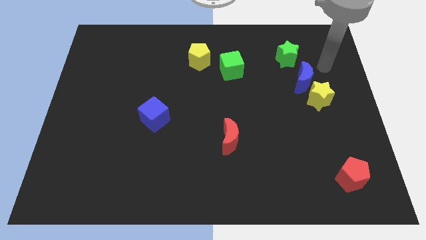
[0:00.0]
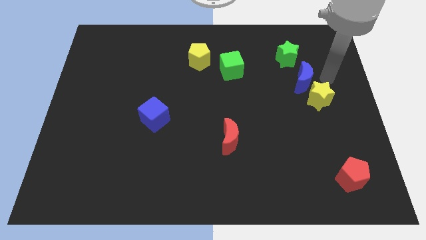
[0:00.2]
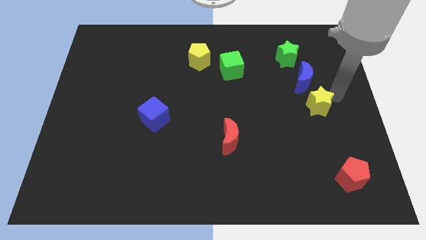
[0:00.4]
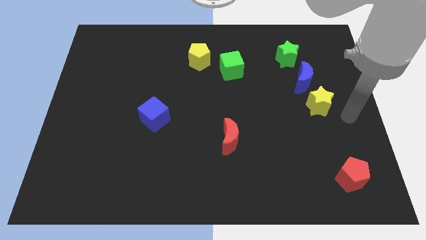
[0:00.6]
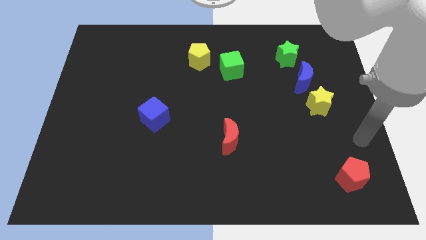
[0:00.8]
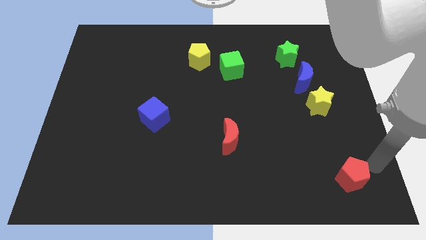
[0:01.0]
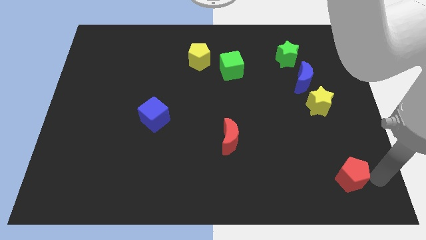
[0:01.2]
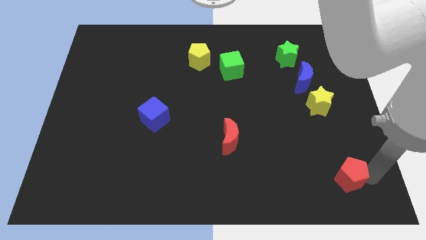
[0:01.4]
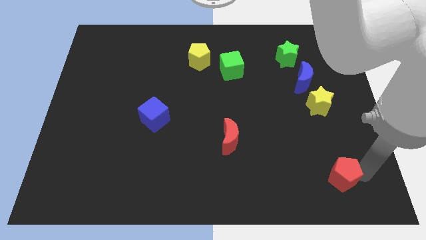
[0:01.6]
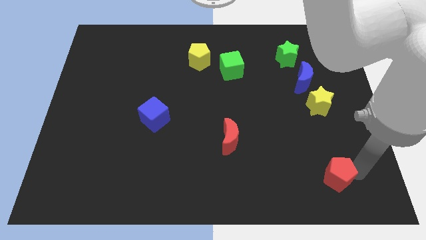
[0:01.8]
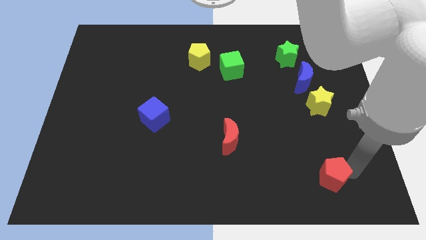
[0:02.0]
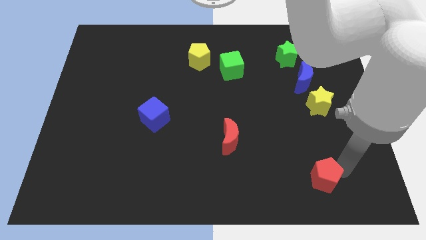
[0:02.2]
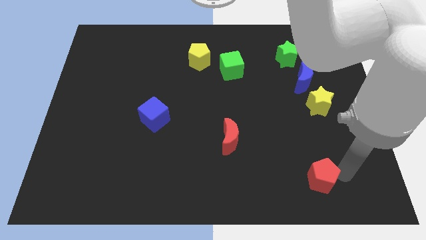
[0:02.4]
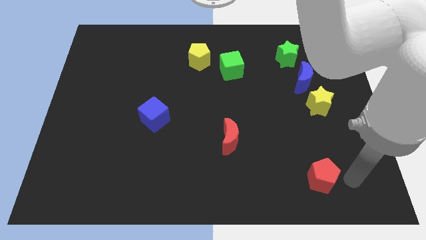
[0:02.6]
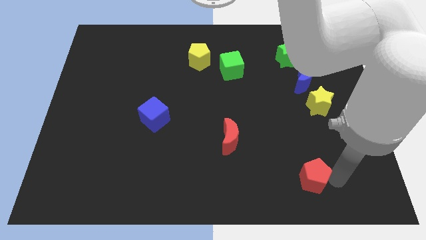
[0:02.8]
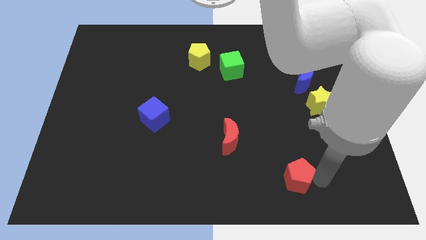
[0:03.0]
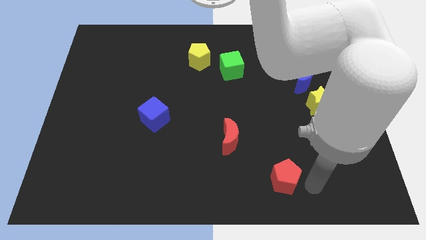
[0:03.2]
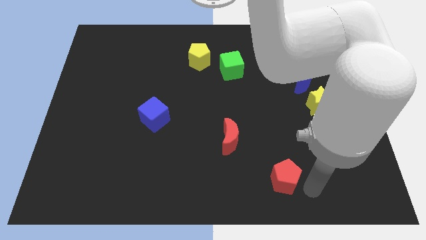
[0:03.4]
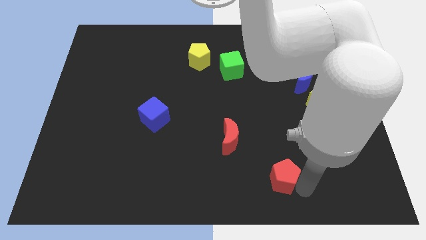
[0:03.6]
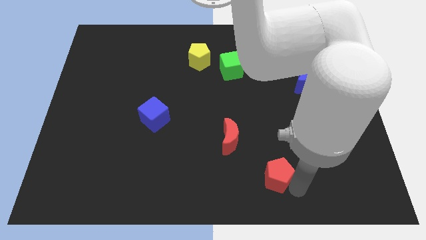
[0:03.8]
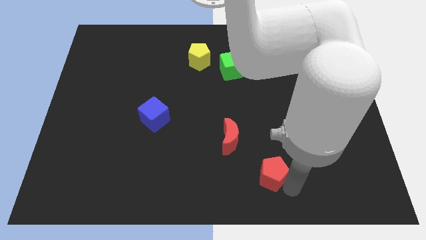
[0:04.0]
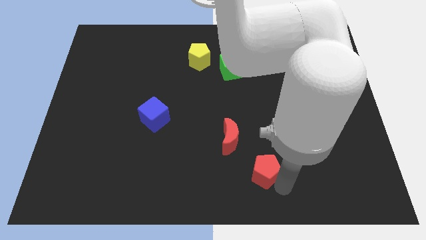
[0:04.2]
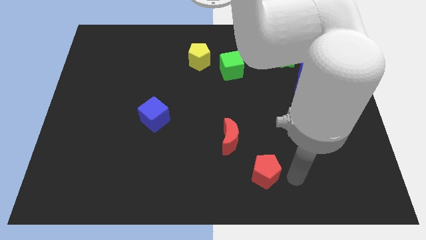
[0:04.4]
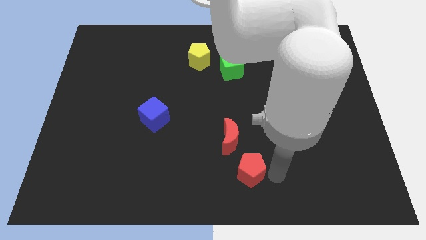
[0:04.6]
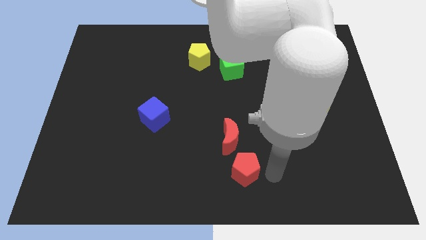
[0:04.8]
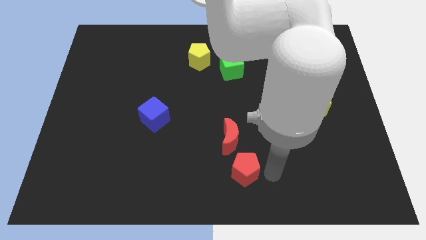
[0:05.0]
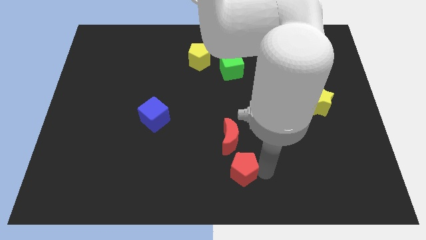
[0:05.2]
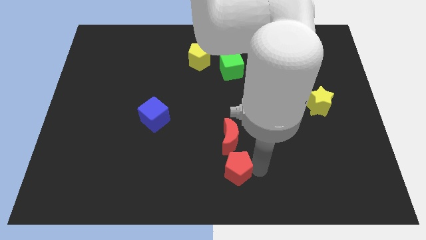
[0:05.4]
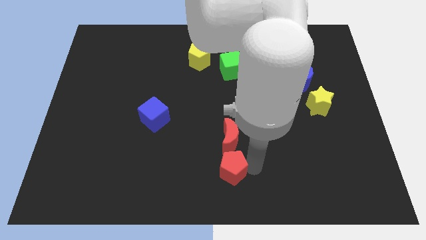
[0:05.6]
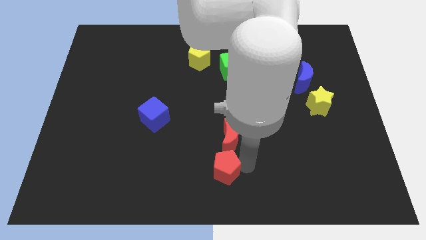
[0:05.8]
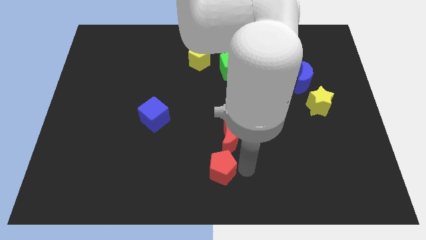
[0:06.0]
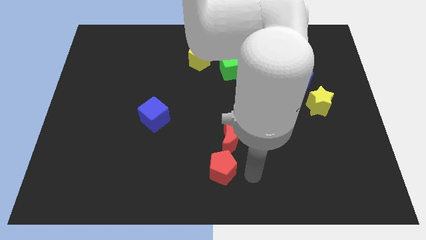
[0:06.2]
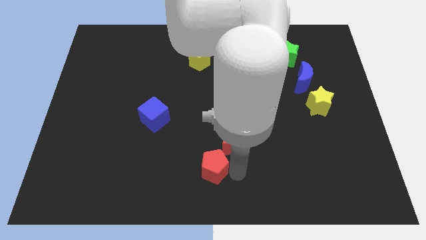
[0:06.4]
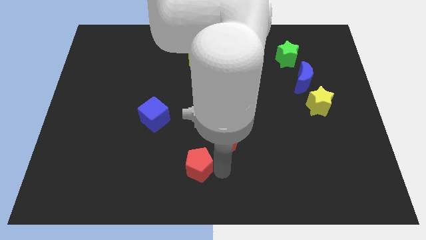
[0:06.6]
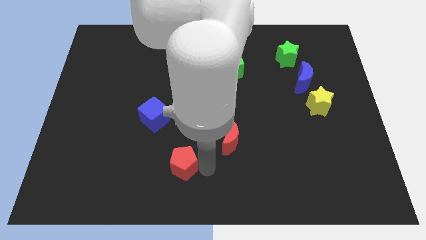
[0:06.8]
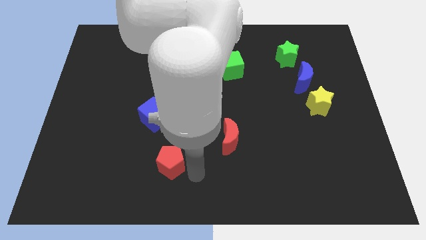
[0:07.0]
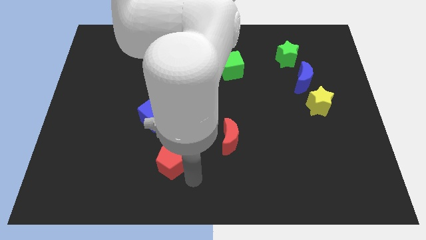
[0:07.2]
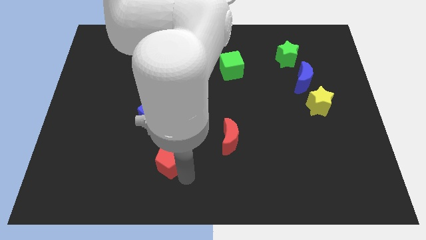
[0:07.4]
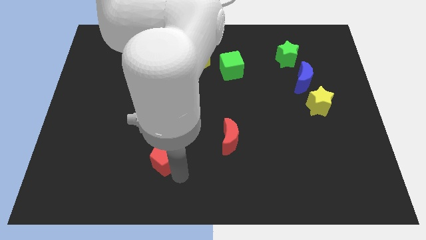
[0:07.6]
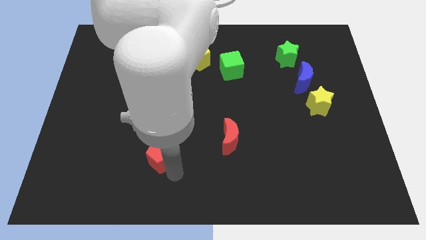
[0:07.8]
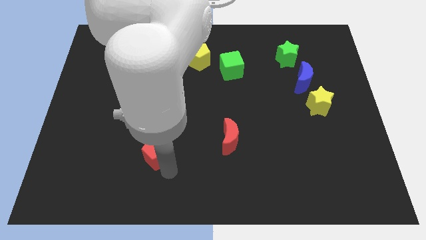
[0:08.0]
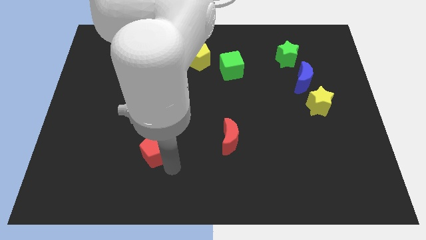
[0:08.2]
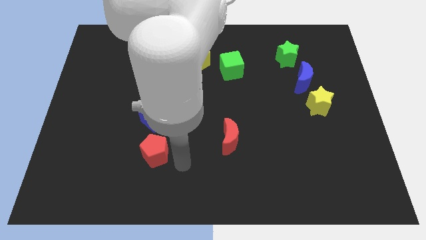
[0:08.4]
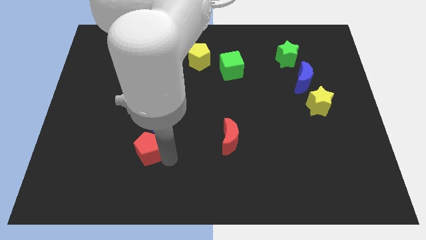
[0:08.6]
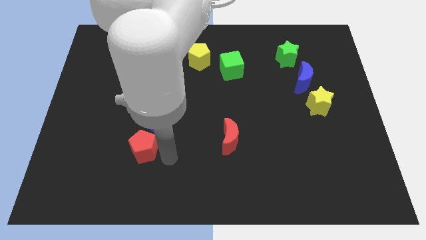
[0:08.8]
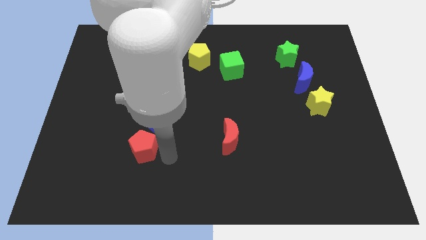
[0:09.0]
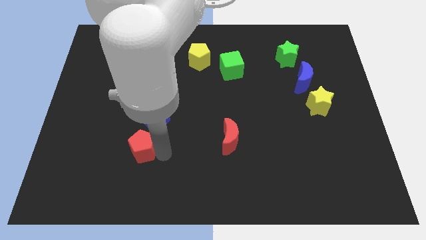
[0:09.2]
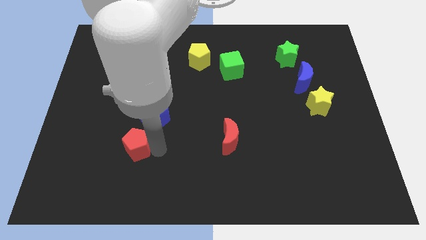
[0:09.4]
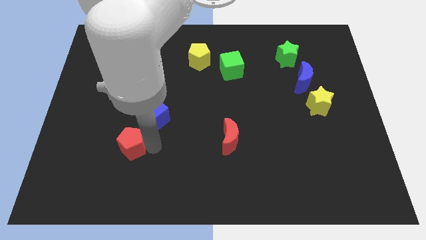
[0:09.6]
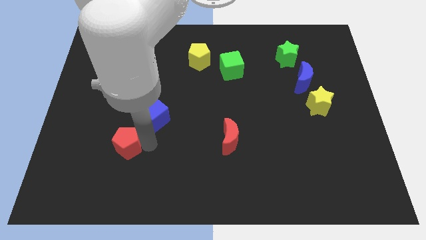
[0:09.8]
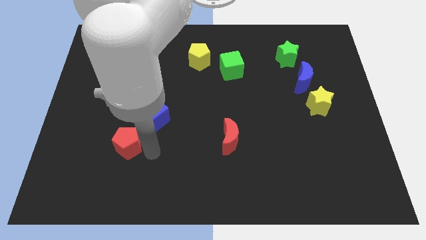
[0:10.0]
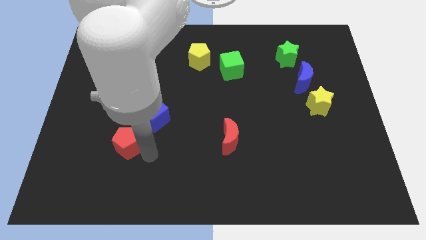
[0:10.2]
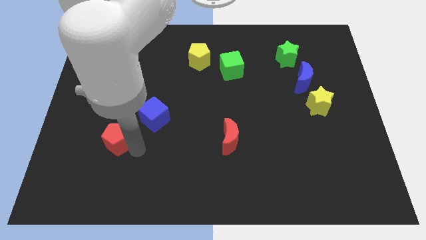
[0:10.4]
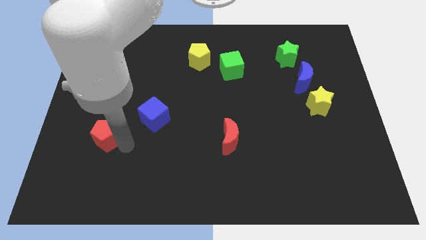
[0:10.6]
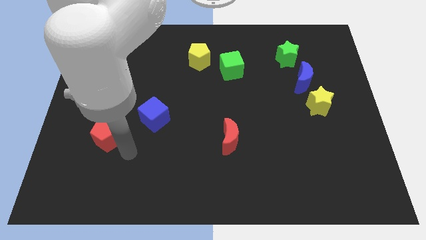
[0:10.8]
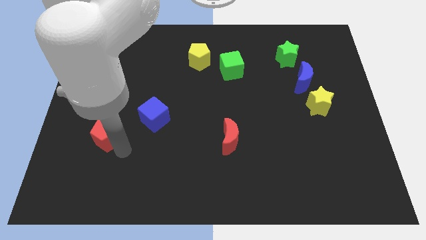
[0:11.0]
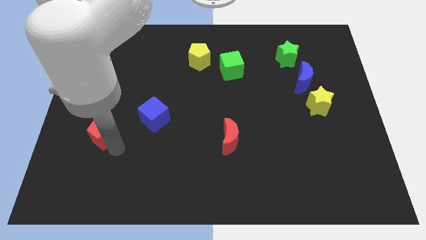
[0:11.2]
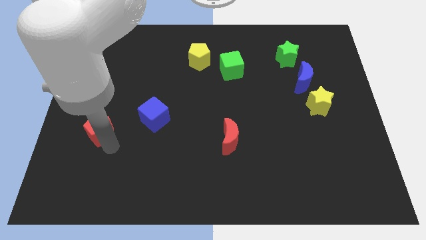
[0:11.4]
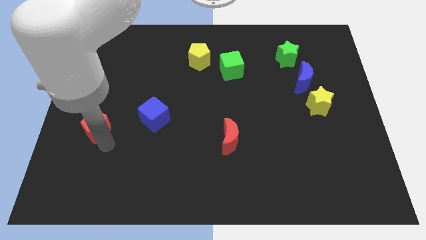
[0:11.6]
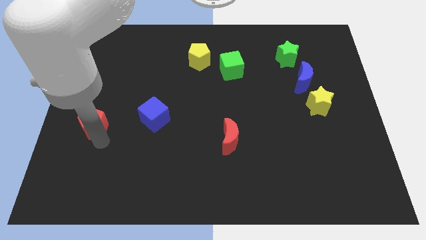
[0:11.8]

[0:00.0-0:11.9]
push the red pentagon to the center left
